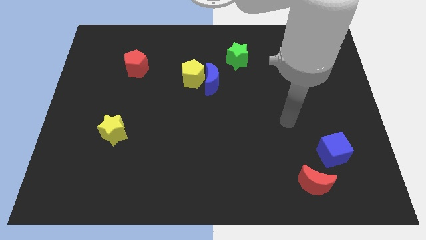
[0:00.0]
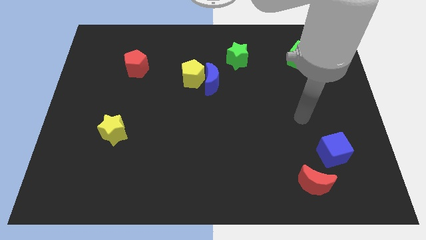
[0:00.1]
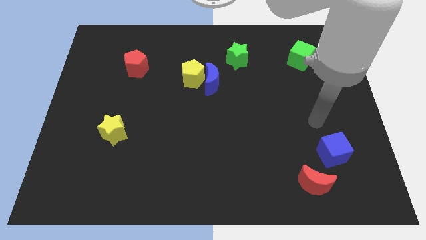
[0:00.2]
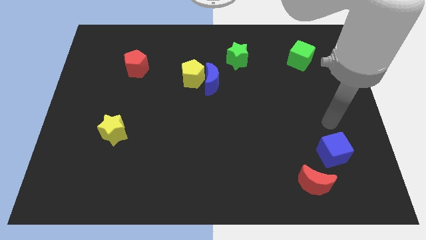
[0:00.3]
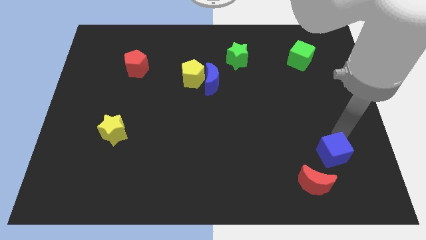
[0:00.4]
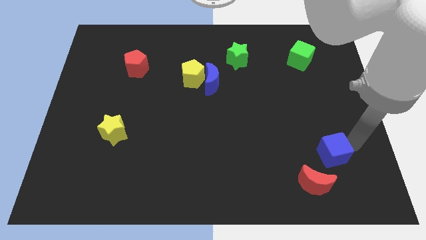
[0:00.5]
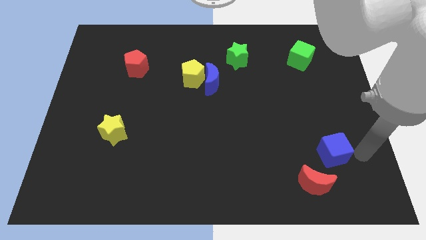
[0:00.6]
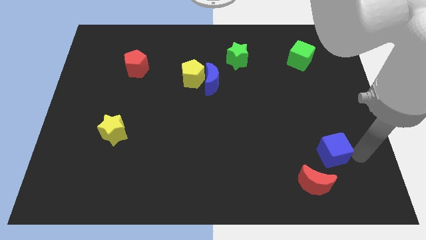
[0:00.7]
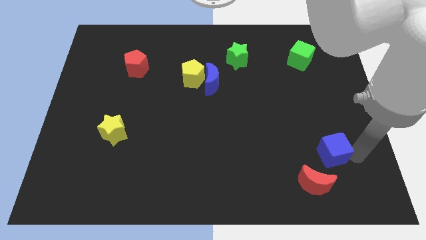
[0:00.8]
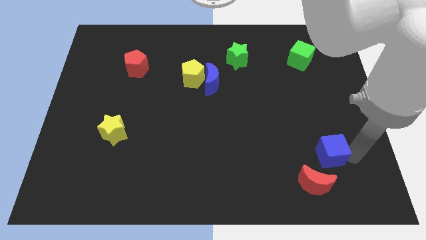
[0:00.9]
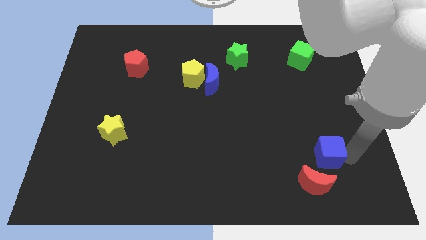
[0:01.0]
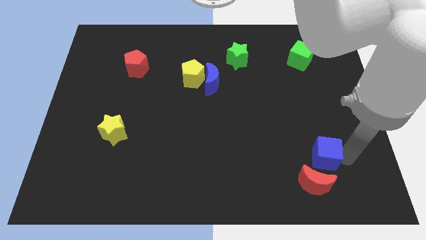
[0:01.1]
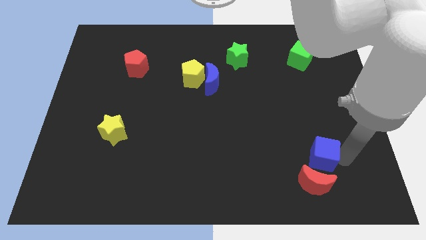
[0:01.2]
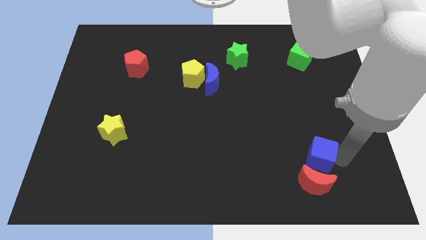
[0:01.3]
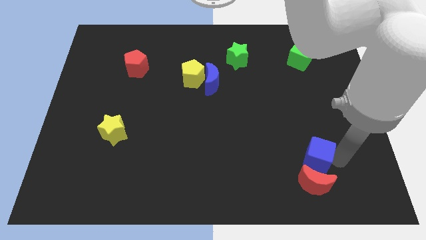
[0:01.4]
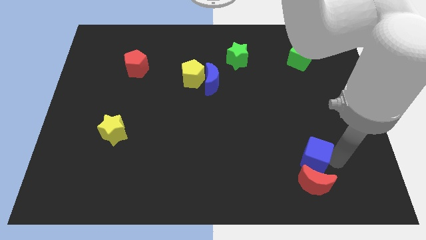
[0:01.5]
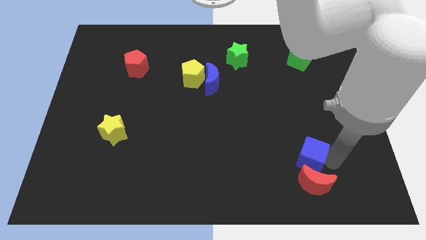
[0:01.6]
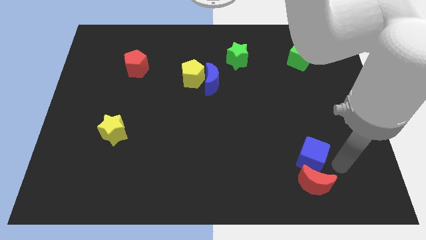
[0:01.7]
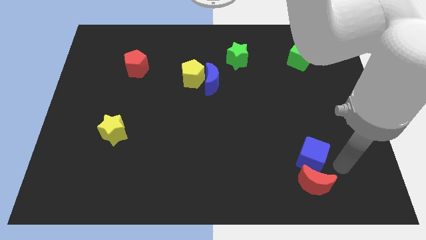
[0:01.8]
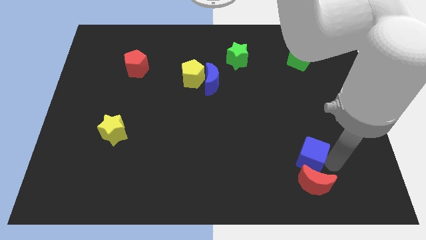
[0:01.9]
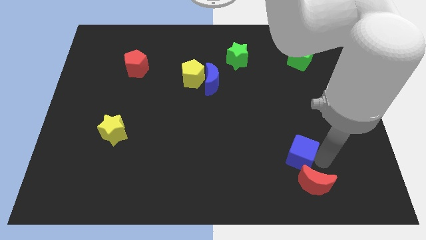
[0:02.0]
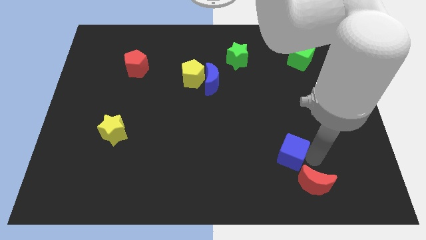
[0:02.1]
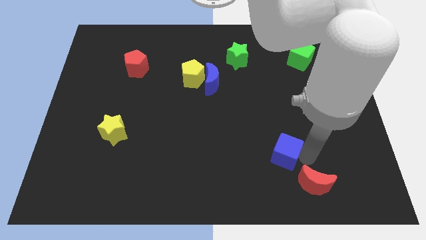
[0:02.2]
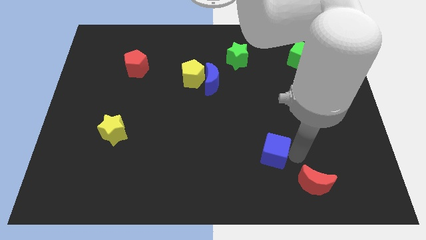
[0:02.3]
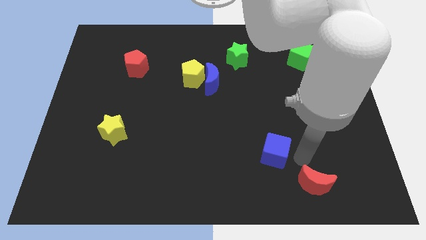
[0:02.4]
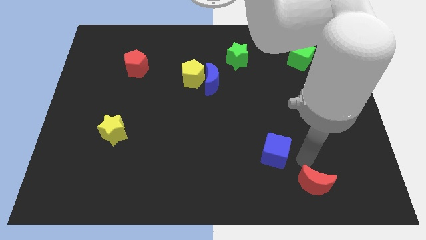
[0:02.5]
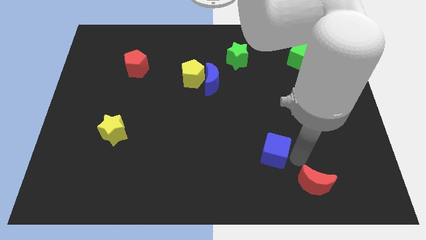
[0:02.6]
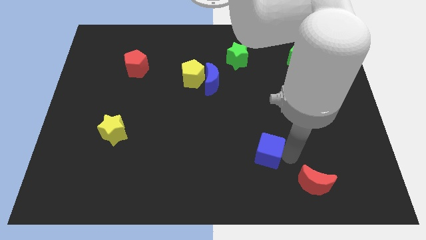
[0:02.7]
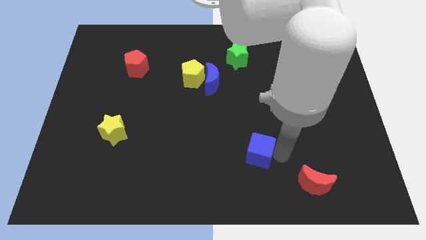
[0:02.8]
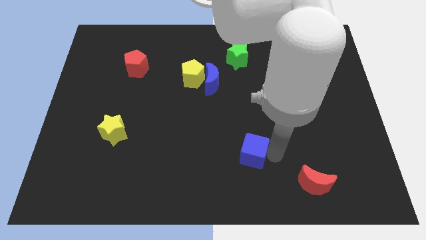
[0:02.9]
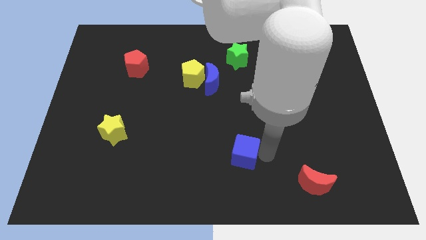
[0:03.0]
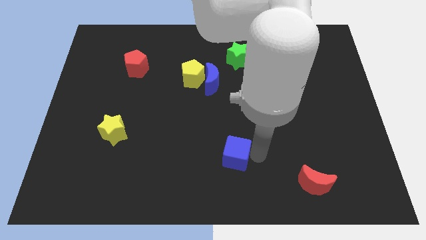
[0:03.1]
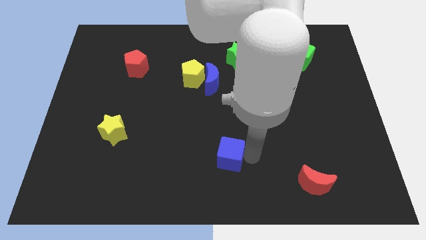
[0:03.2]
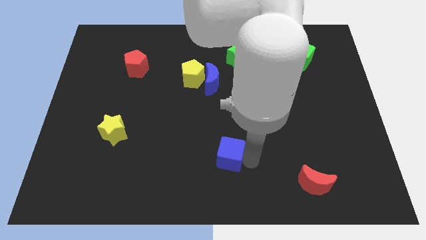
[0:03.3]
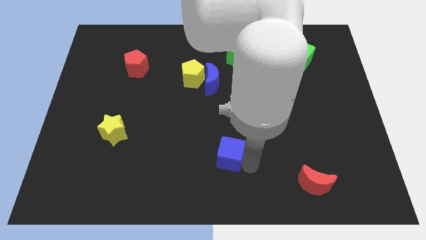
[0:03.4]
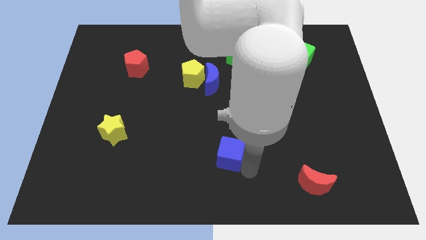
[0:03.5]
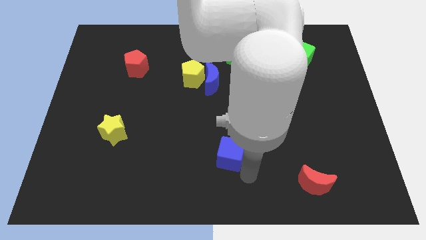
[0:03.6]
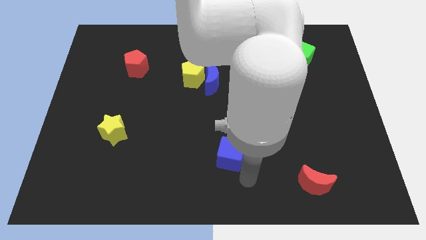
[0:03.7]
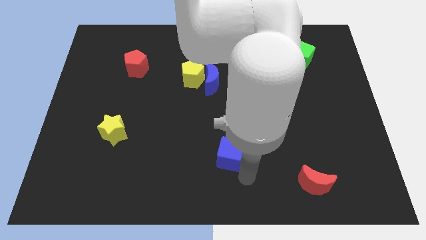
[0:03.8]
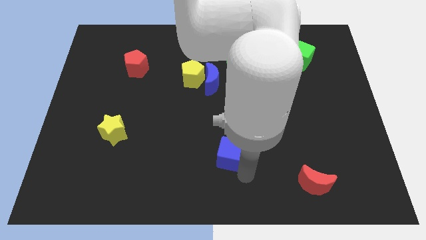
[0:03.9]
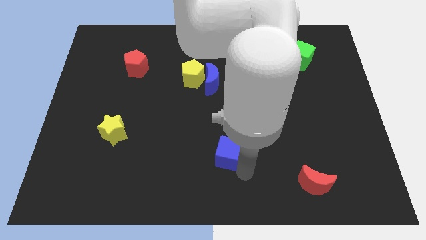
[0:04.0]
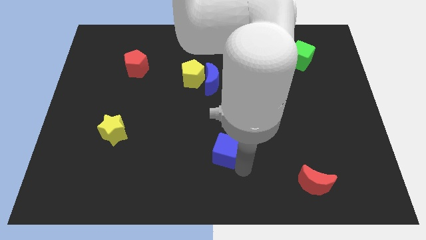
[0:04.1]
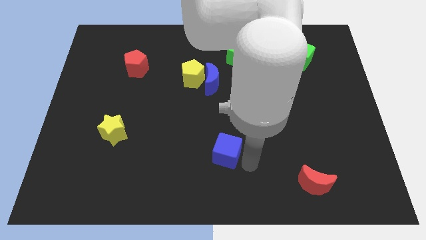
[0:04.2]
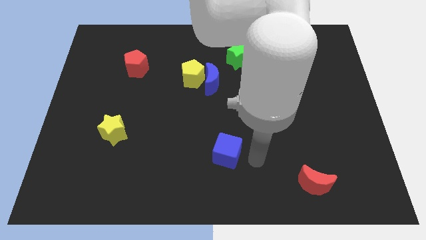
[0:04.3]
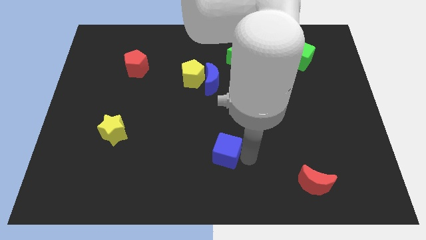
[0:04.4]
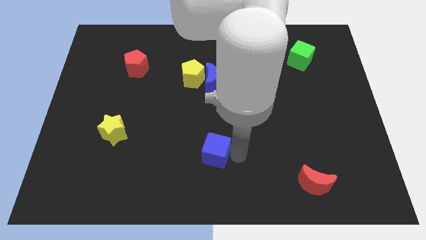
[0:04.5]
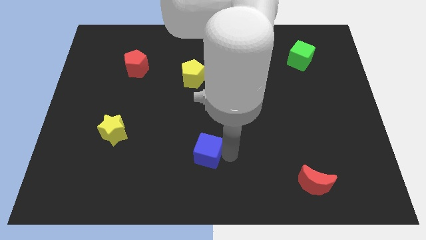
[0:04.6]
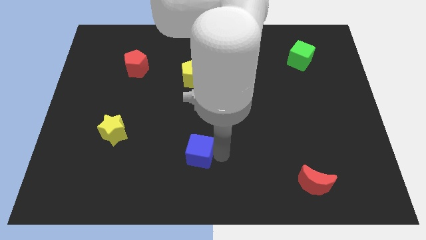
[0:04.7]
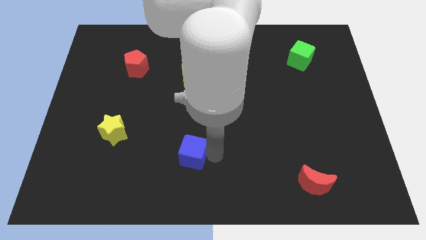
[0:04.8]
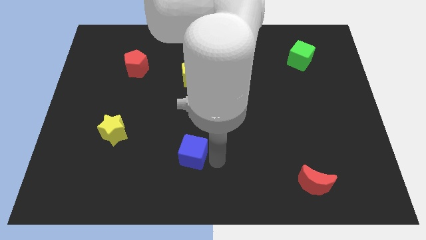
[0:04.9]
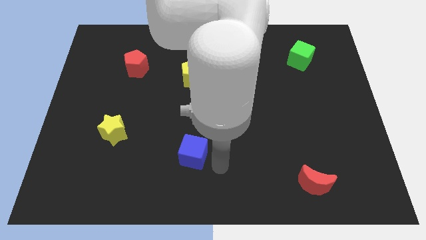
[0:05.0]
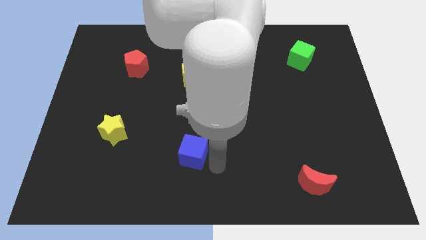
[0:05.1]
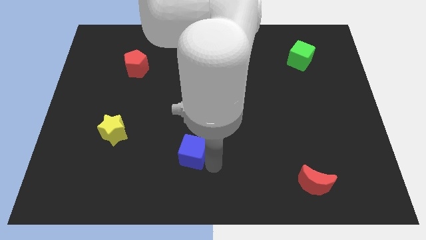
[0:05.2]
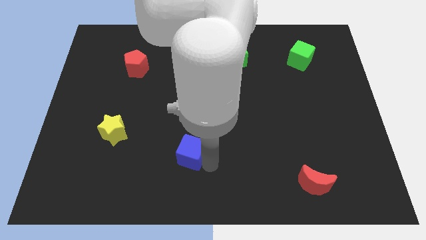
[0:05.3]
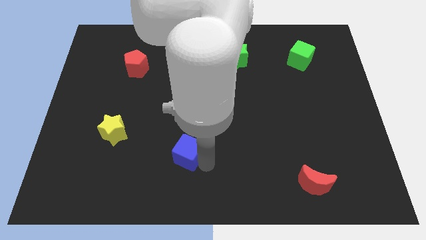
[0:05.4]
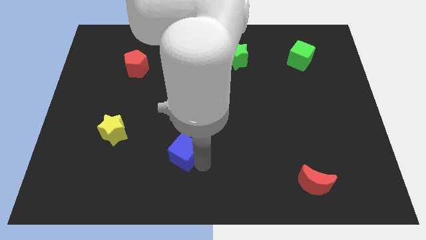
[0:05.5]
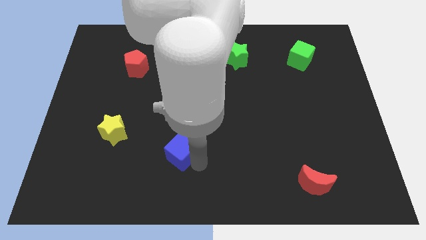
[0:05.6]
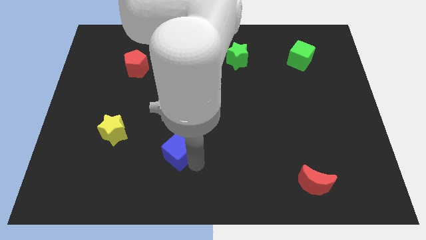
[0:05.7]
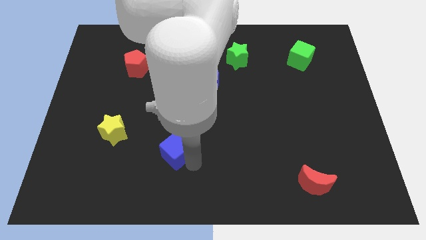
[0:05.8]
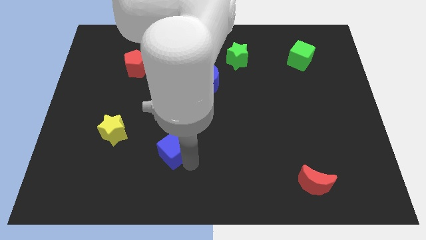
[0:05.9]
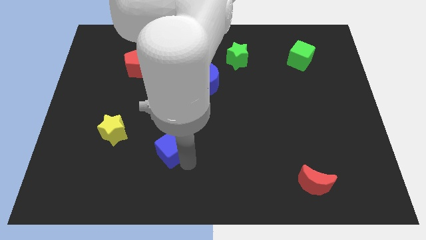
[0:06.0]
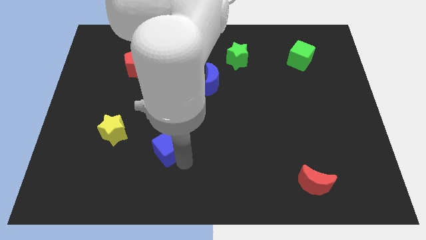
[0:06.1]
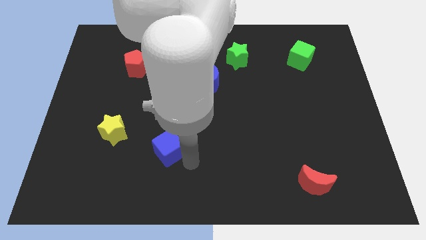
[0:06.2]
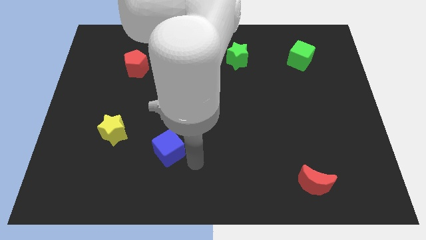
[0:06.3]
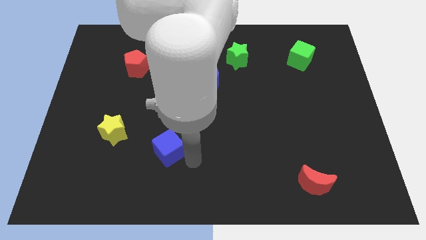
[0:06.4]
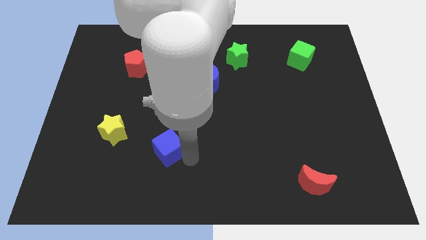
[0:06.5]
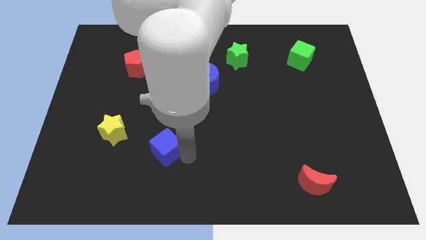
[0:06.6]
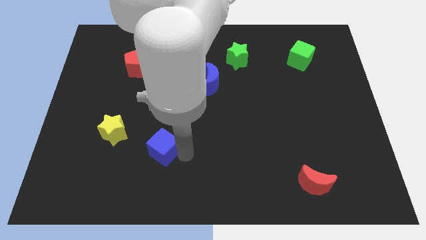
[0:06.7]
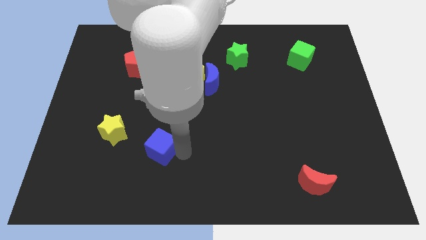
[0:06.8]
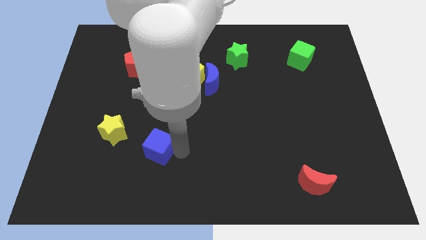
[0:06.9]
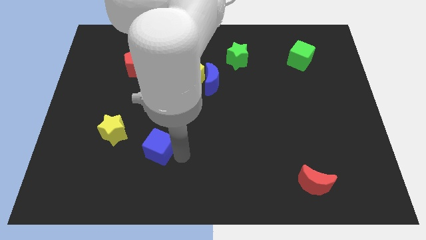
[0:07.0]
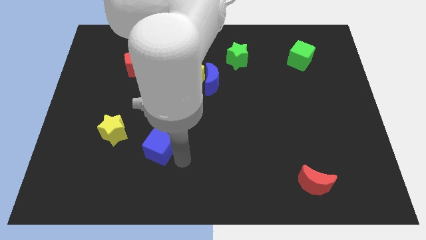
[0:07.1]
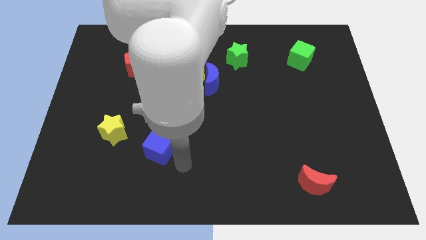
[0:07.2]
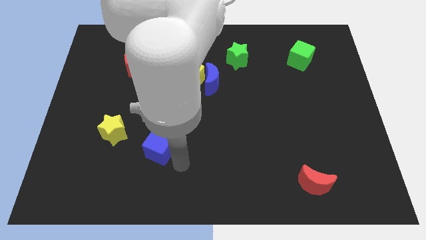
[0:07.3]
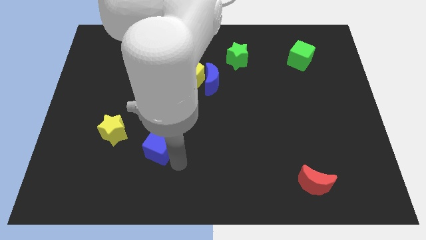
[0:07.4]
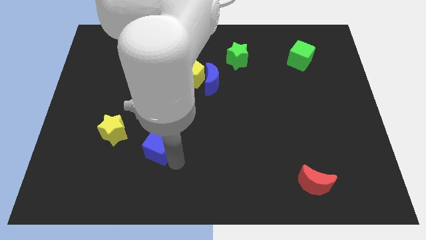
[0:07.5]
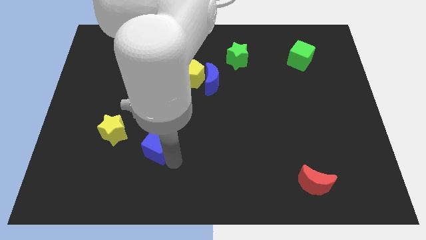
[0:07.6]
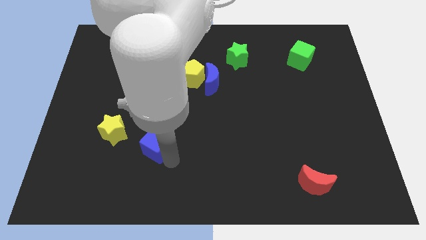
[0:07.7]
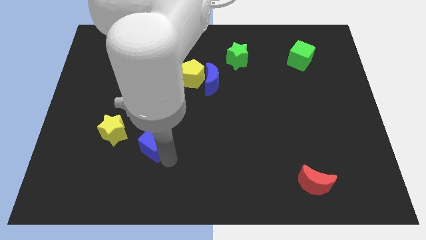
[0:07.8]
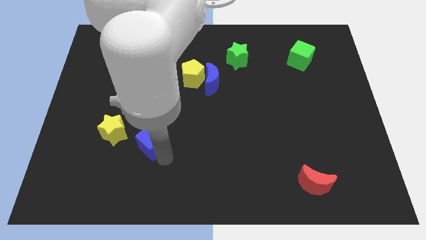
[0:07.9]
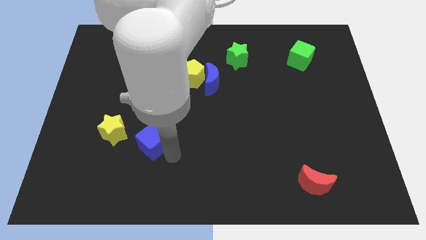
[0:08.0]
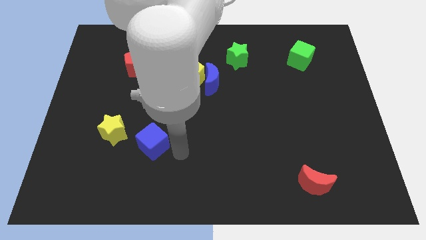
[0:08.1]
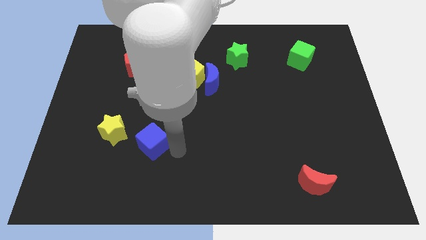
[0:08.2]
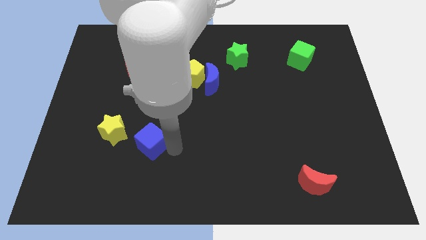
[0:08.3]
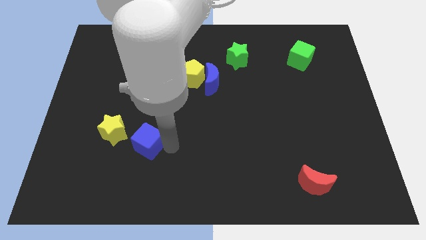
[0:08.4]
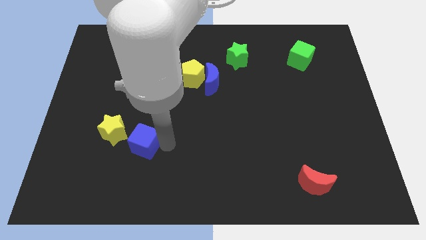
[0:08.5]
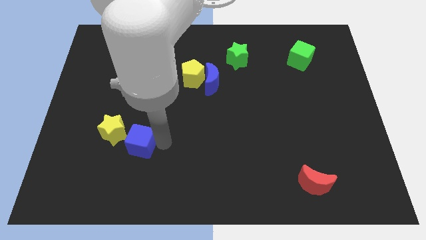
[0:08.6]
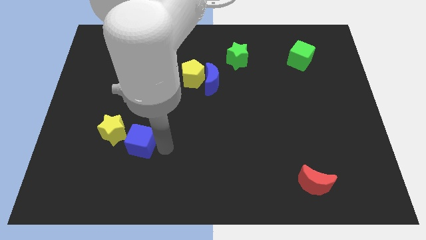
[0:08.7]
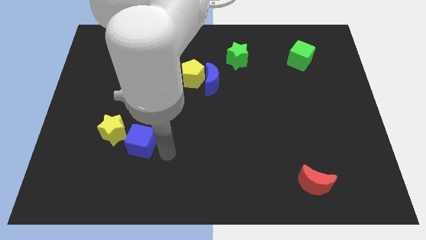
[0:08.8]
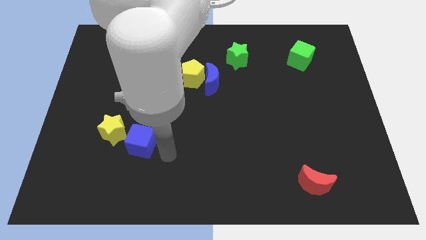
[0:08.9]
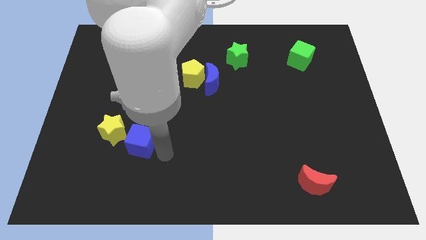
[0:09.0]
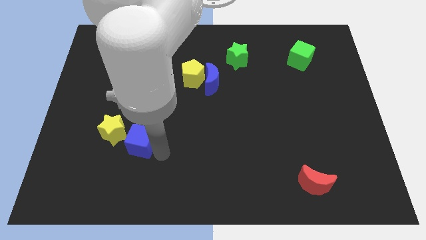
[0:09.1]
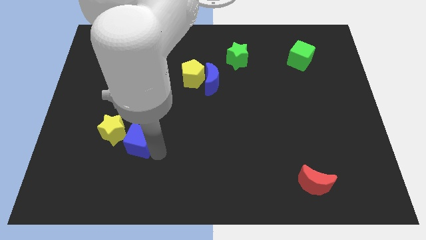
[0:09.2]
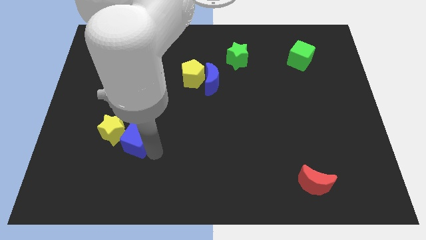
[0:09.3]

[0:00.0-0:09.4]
put the blue cube to the yellow star
